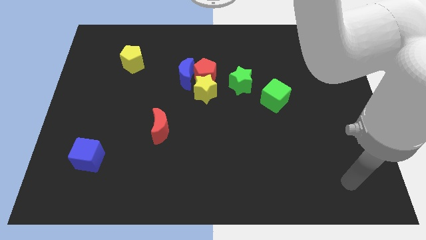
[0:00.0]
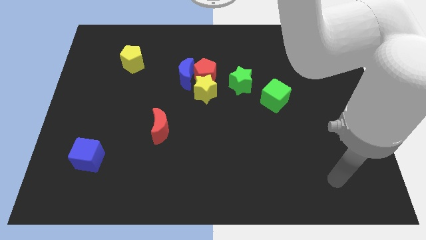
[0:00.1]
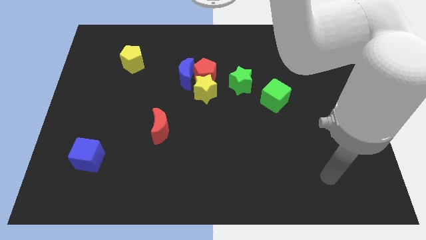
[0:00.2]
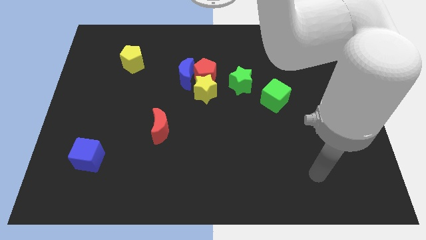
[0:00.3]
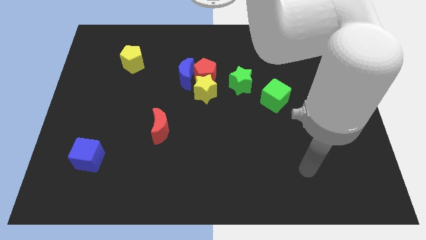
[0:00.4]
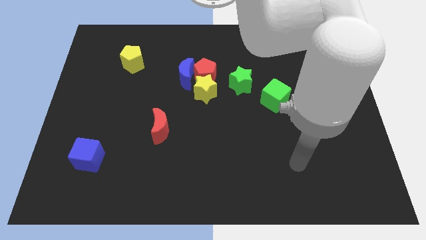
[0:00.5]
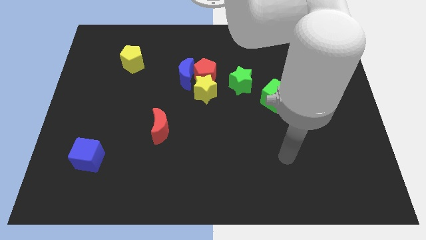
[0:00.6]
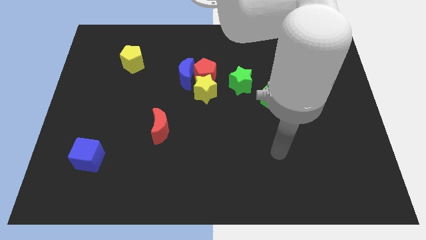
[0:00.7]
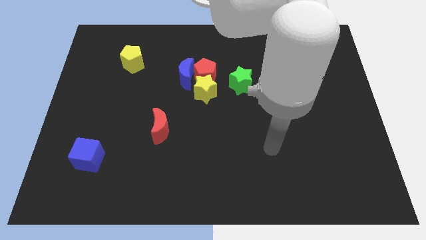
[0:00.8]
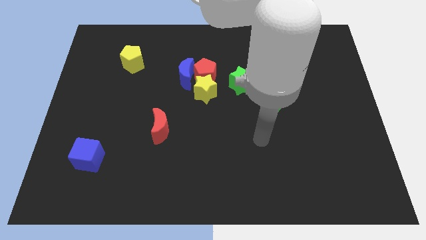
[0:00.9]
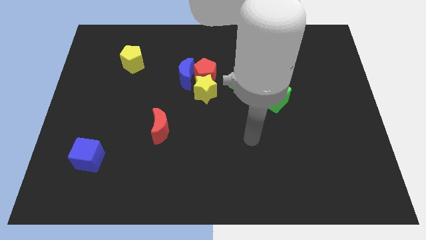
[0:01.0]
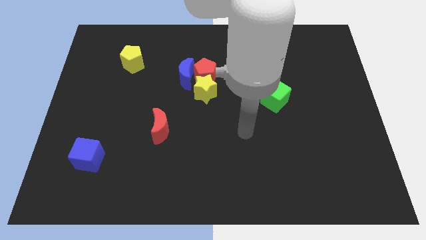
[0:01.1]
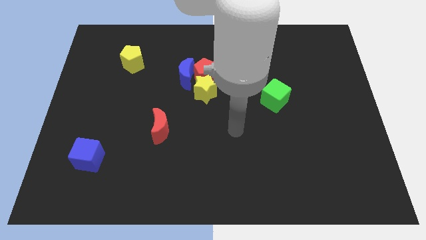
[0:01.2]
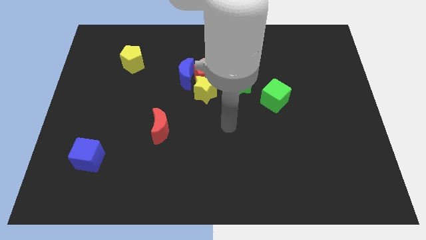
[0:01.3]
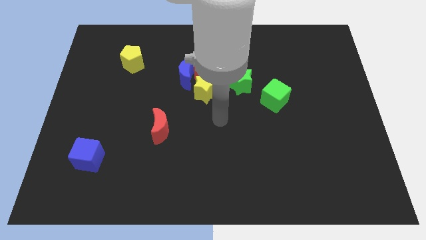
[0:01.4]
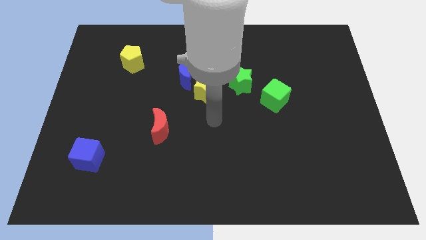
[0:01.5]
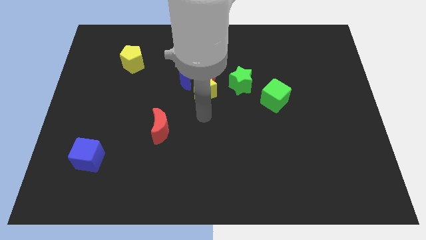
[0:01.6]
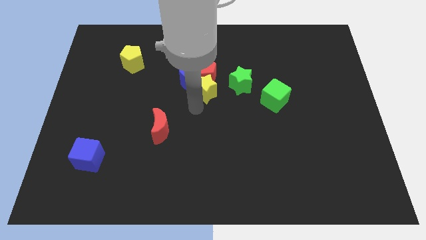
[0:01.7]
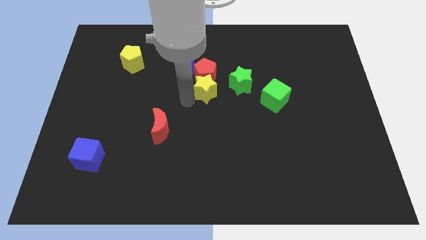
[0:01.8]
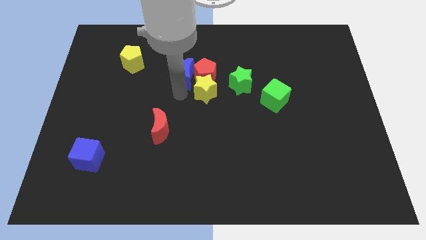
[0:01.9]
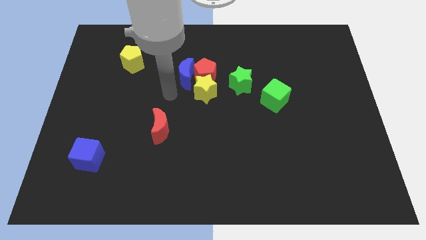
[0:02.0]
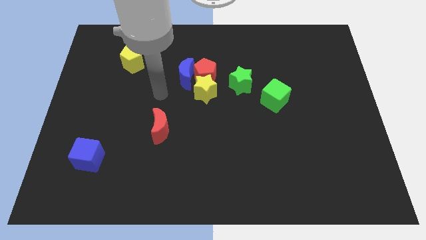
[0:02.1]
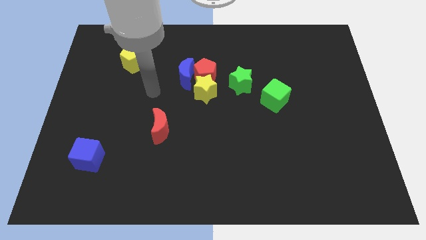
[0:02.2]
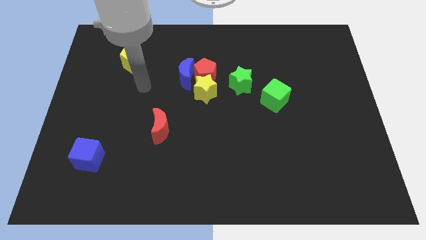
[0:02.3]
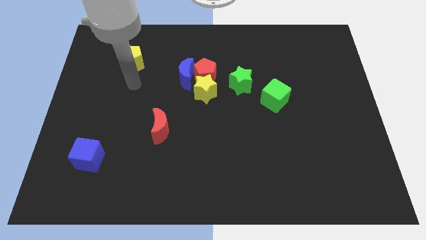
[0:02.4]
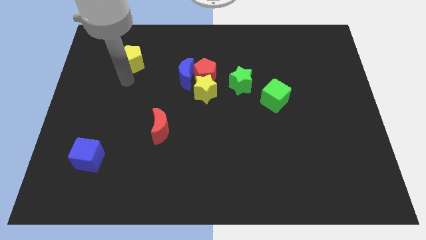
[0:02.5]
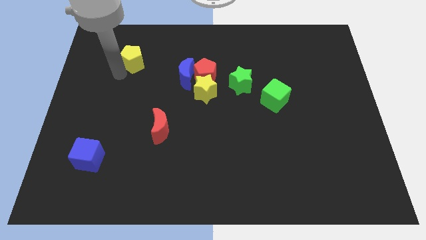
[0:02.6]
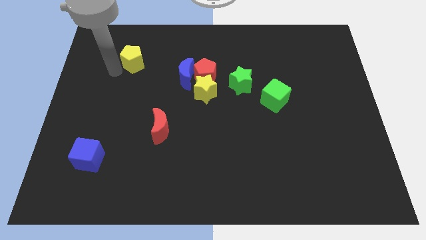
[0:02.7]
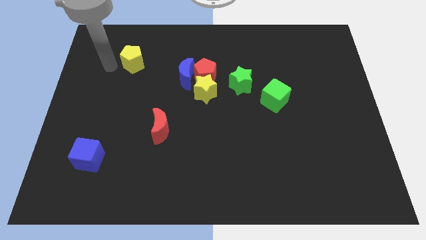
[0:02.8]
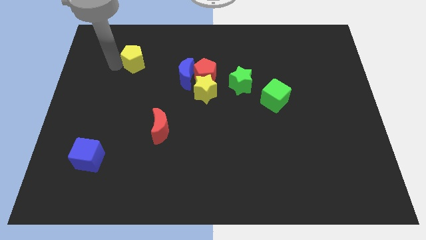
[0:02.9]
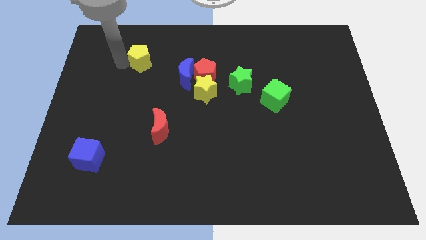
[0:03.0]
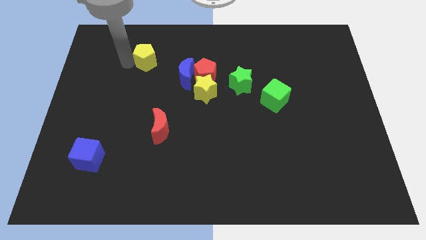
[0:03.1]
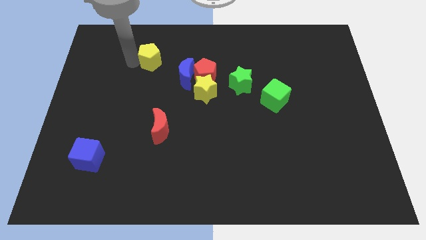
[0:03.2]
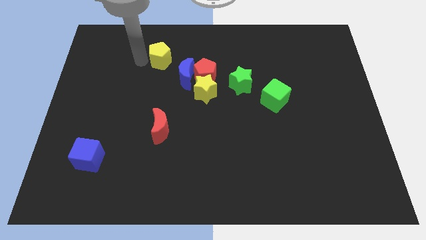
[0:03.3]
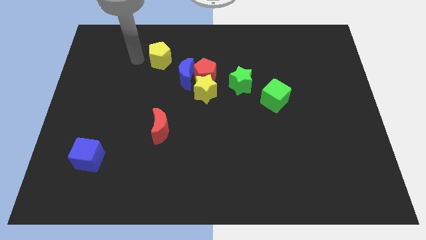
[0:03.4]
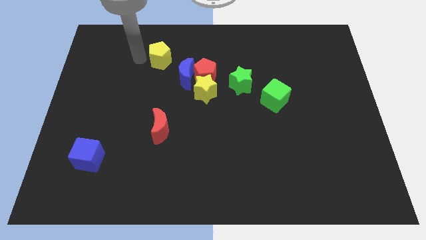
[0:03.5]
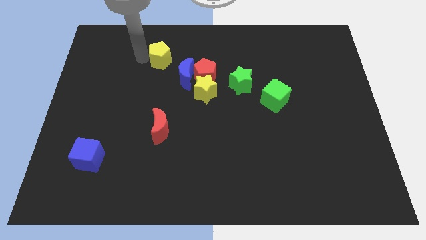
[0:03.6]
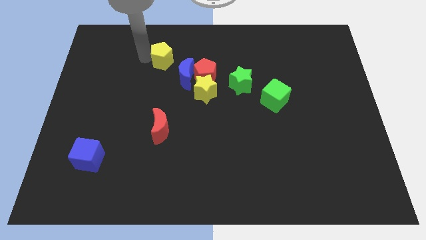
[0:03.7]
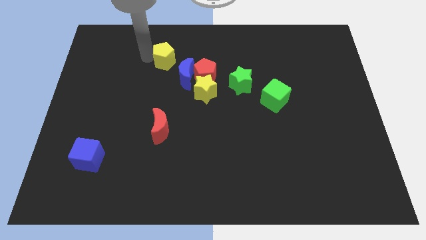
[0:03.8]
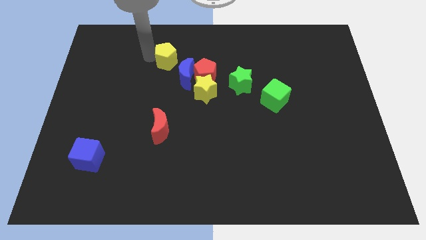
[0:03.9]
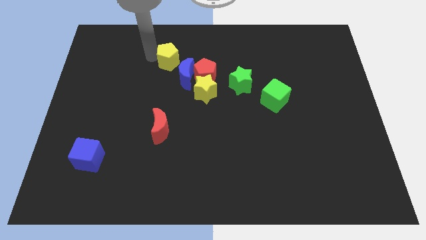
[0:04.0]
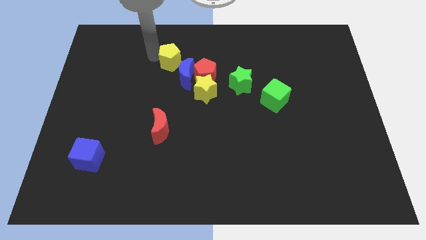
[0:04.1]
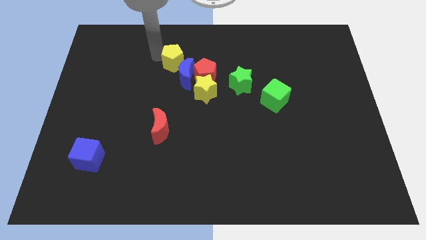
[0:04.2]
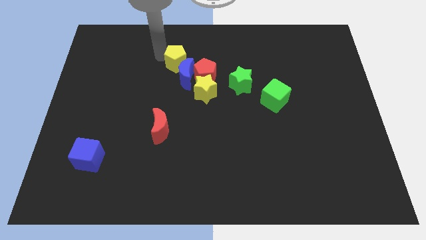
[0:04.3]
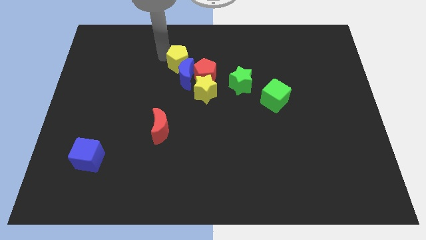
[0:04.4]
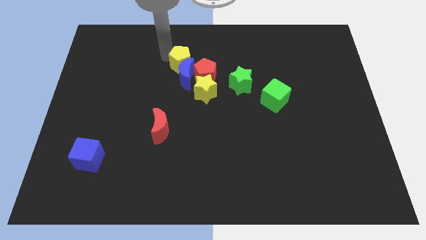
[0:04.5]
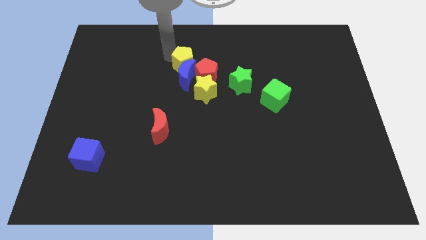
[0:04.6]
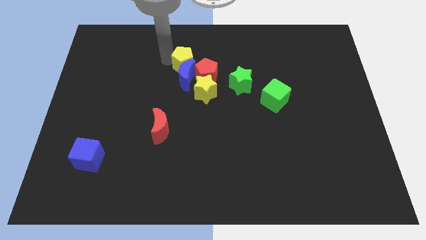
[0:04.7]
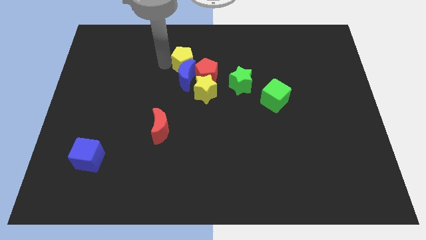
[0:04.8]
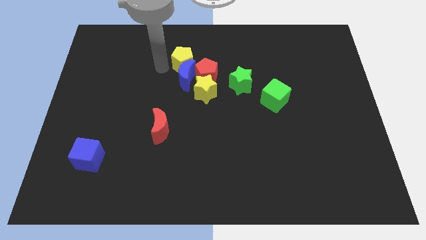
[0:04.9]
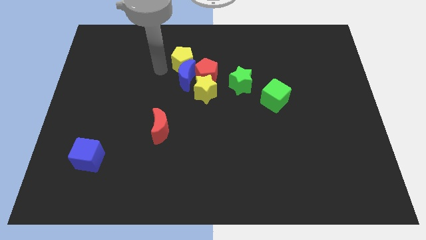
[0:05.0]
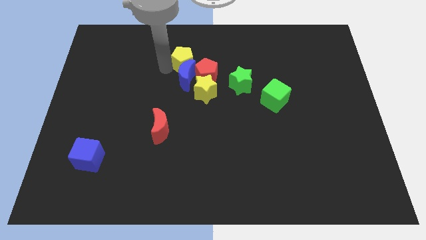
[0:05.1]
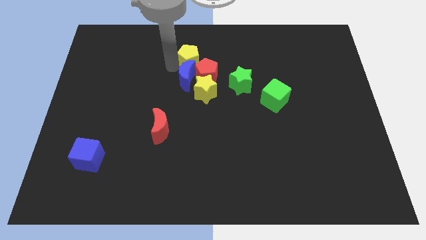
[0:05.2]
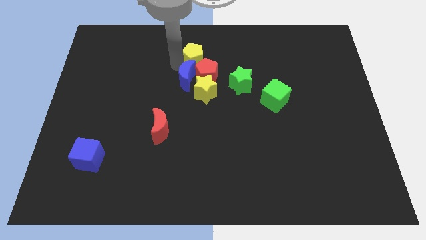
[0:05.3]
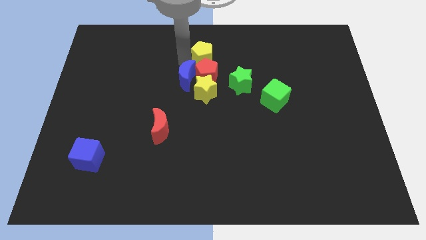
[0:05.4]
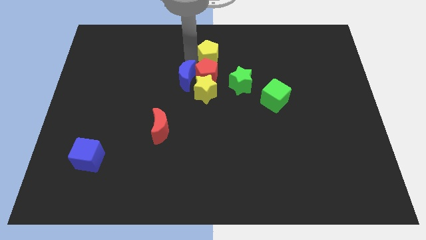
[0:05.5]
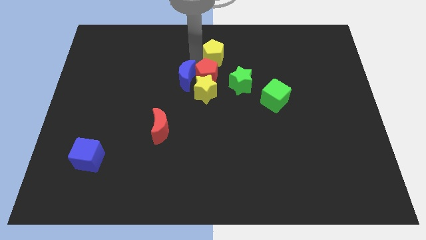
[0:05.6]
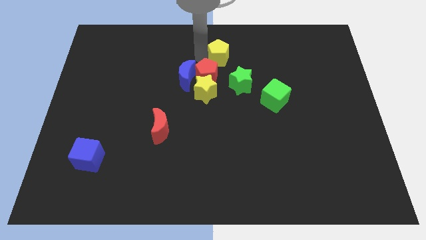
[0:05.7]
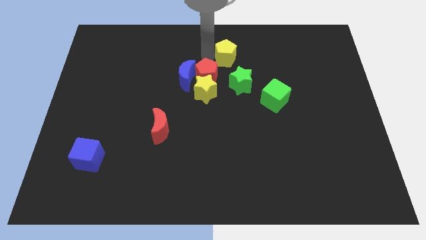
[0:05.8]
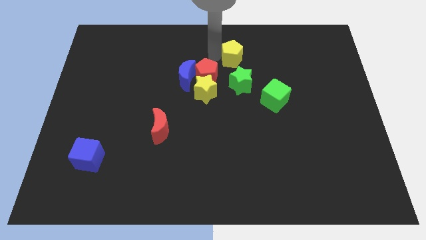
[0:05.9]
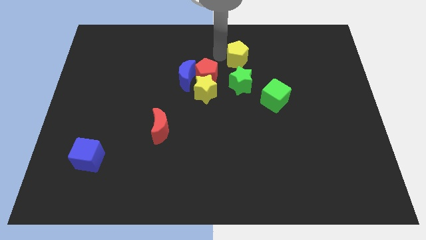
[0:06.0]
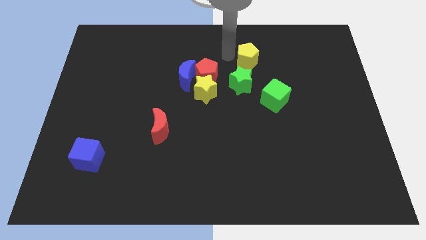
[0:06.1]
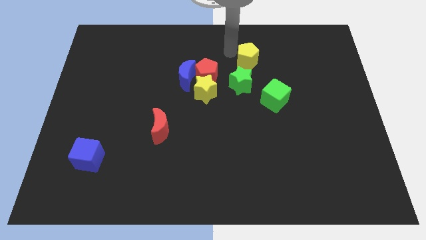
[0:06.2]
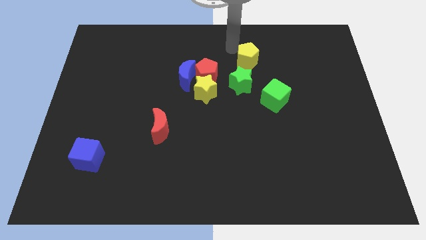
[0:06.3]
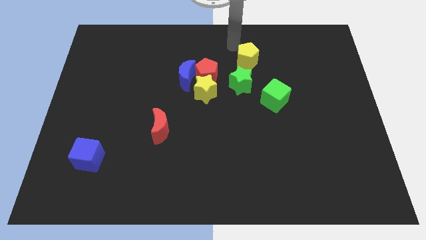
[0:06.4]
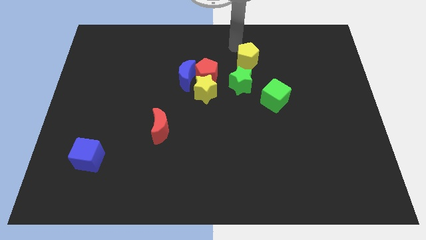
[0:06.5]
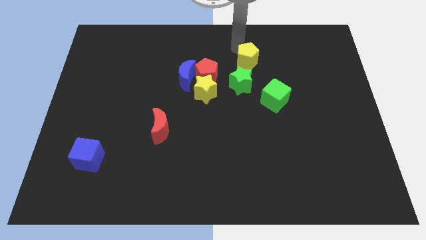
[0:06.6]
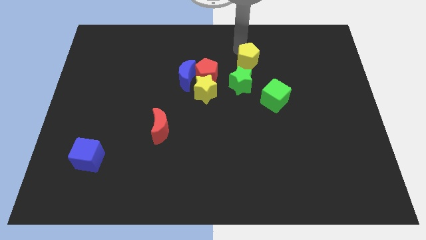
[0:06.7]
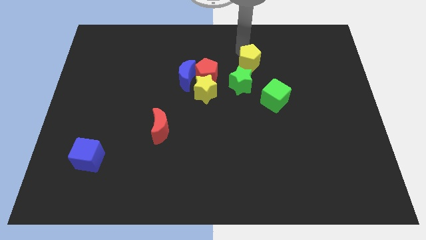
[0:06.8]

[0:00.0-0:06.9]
move the yellow pentagon to the right side of the red pentagon

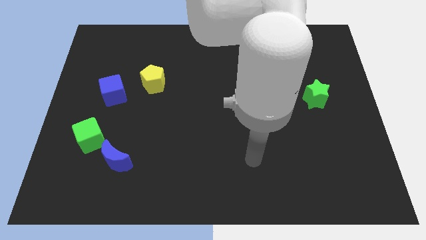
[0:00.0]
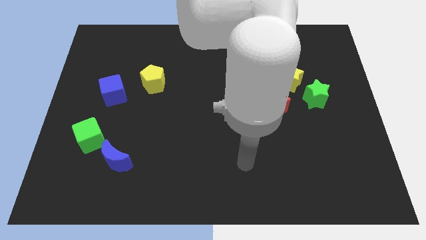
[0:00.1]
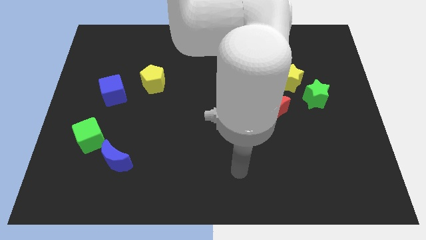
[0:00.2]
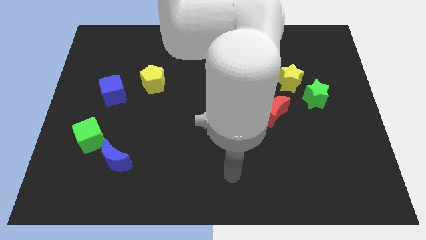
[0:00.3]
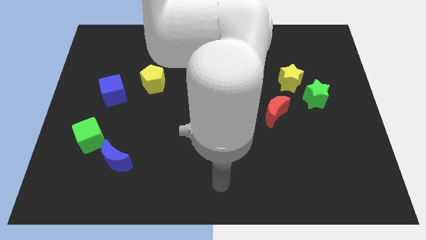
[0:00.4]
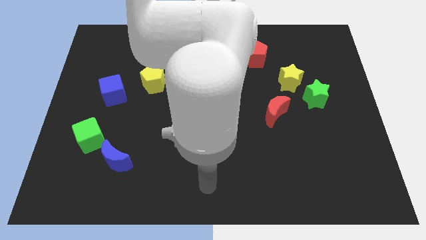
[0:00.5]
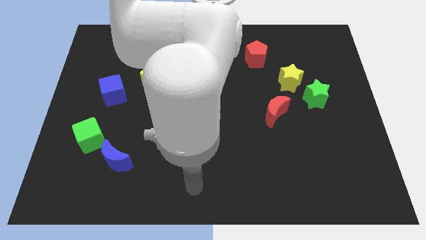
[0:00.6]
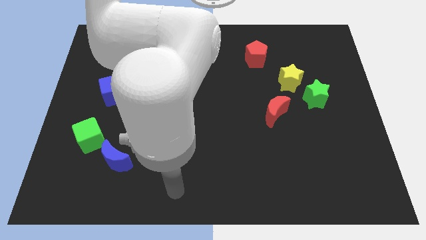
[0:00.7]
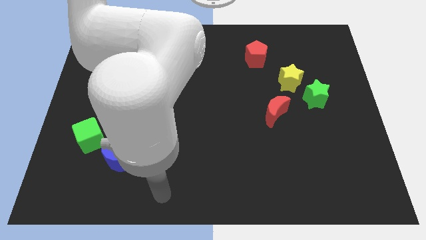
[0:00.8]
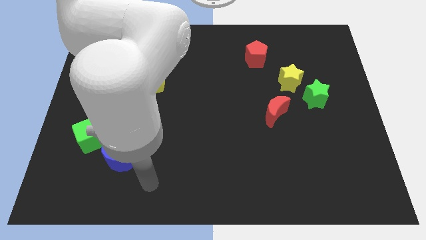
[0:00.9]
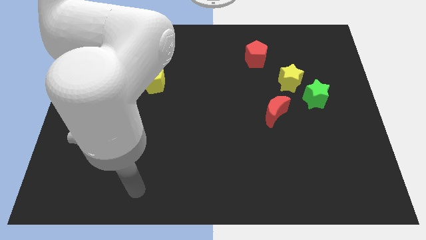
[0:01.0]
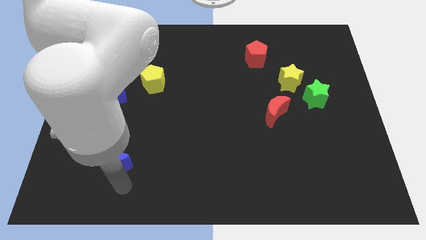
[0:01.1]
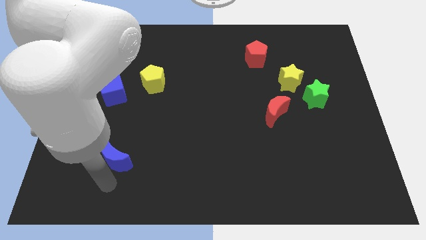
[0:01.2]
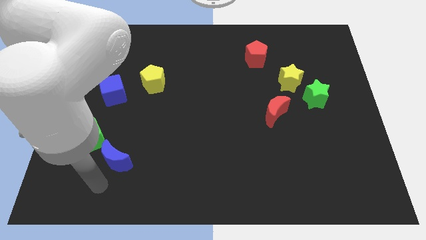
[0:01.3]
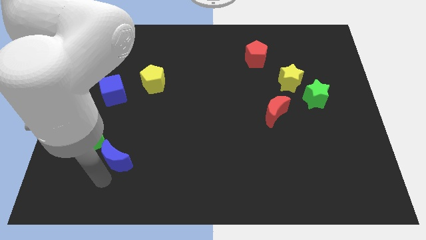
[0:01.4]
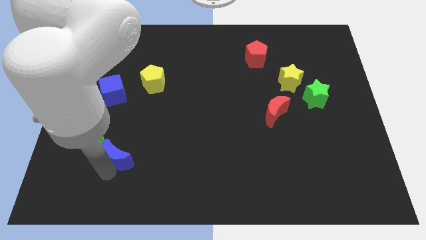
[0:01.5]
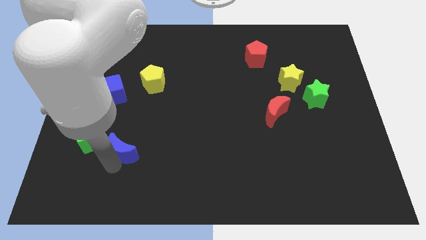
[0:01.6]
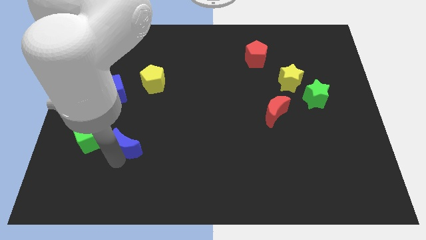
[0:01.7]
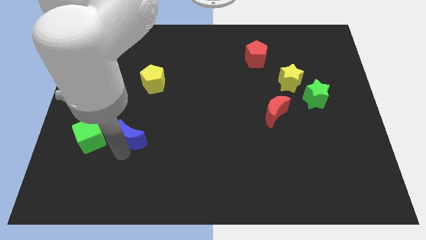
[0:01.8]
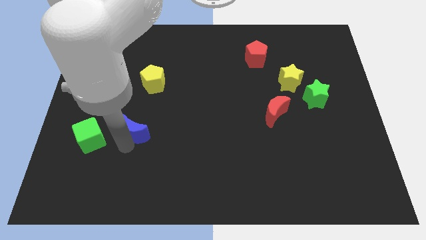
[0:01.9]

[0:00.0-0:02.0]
slide the blue moon below the yellow pentagon
